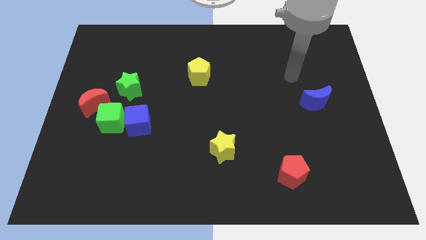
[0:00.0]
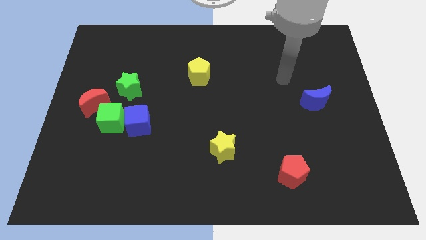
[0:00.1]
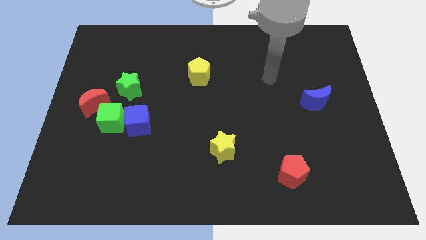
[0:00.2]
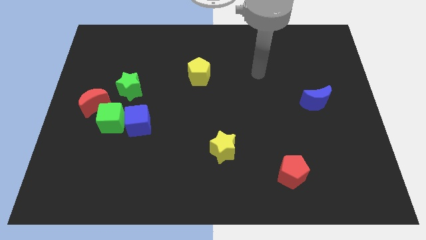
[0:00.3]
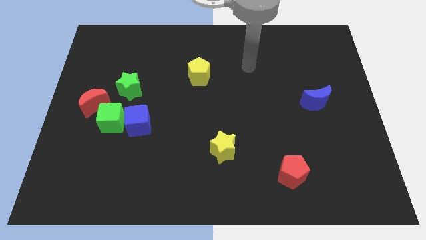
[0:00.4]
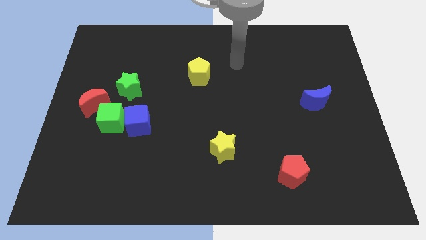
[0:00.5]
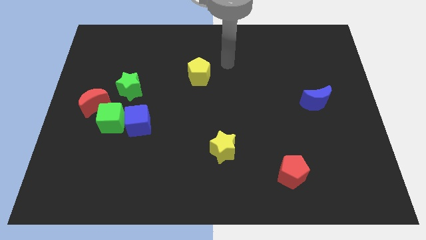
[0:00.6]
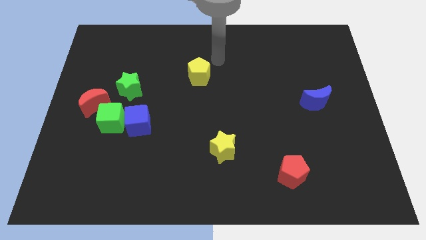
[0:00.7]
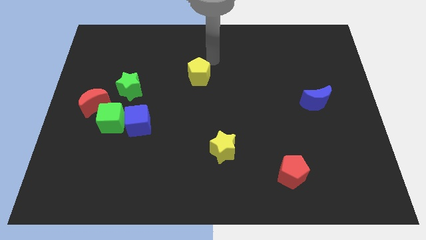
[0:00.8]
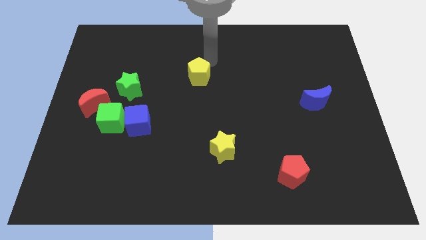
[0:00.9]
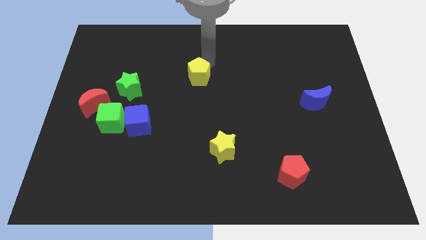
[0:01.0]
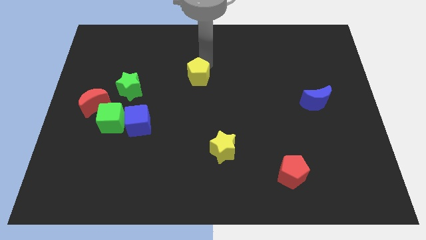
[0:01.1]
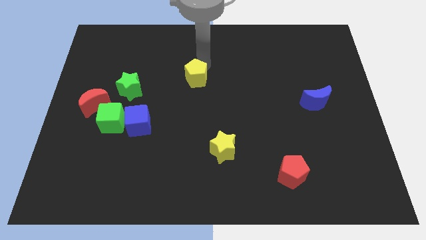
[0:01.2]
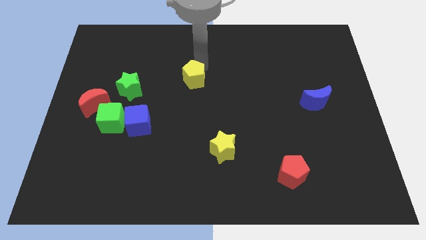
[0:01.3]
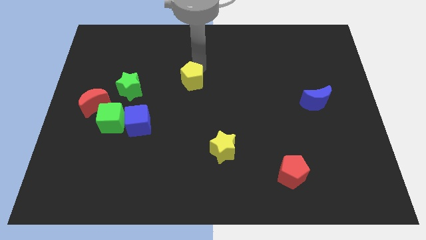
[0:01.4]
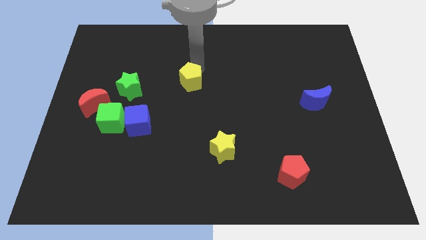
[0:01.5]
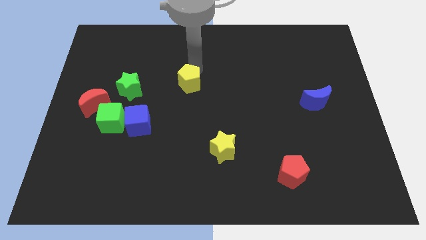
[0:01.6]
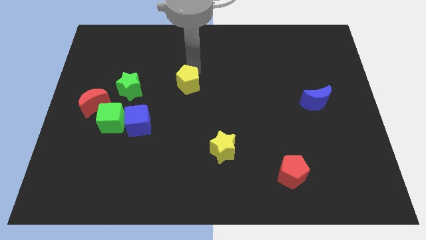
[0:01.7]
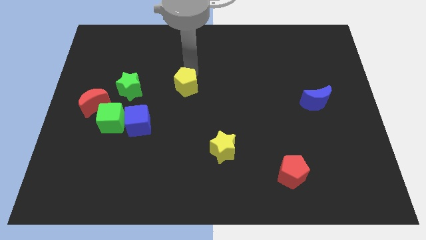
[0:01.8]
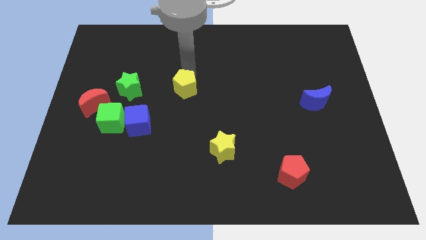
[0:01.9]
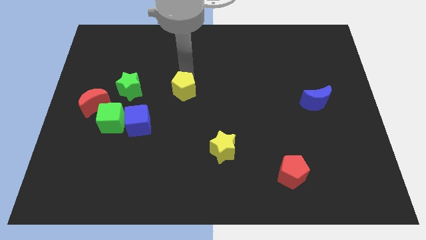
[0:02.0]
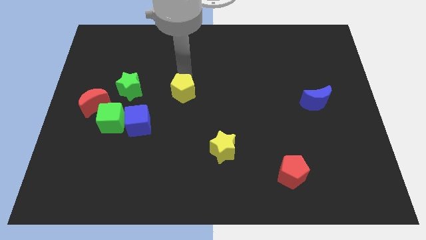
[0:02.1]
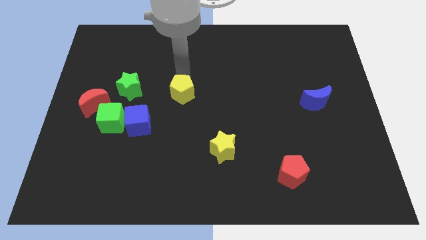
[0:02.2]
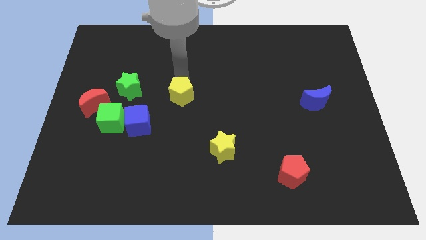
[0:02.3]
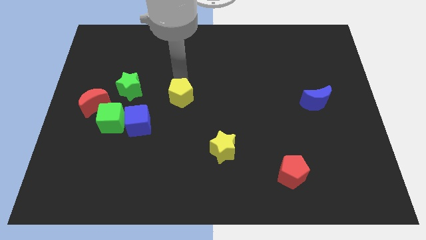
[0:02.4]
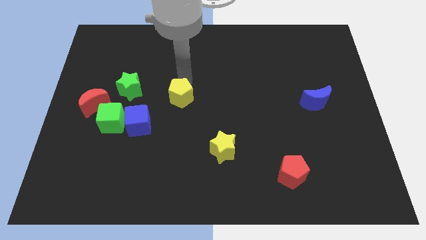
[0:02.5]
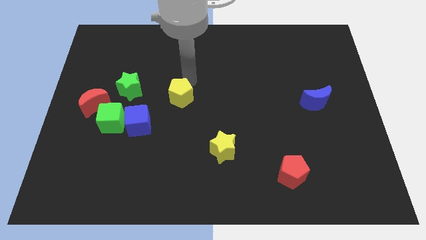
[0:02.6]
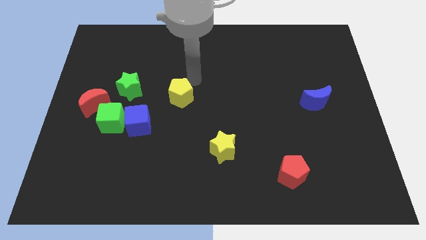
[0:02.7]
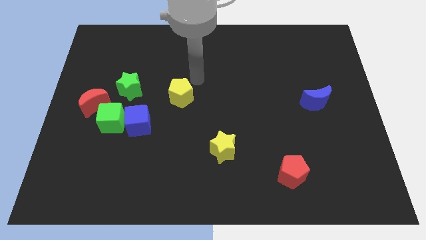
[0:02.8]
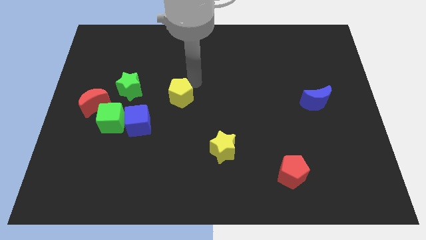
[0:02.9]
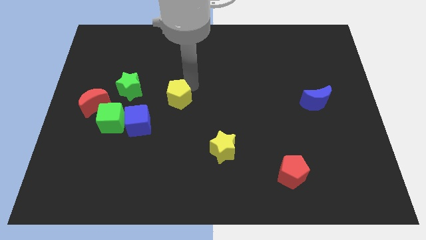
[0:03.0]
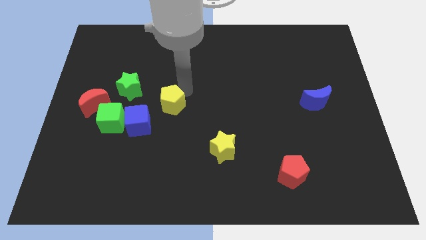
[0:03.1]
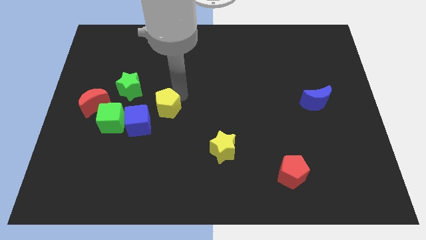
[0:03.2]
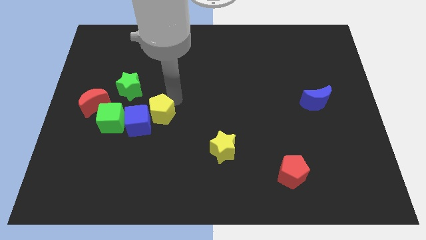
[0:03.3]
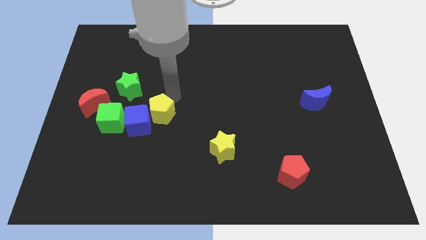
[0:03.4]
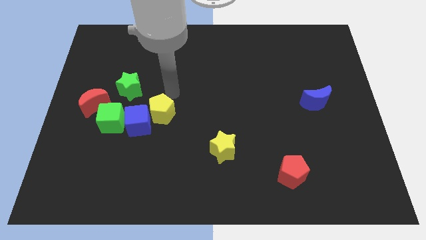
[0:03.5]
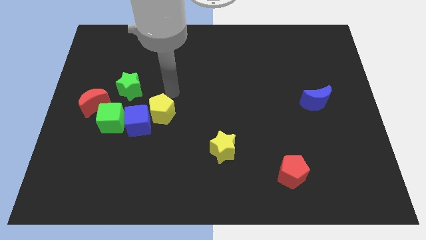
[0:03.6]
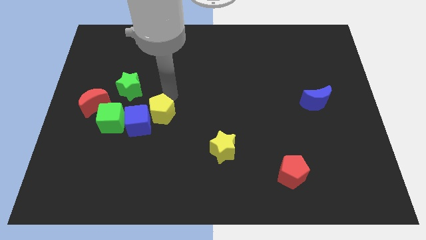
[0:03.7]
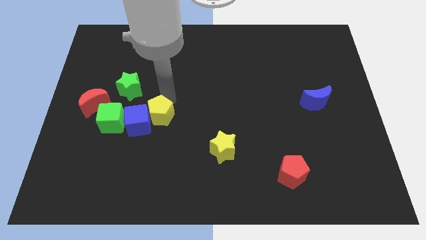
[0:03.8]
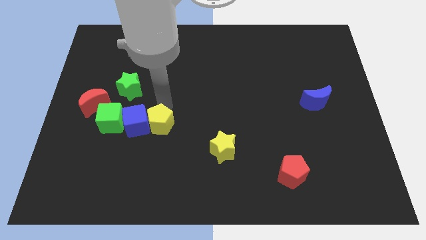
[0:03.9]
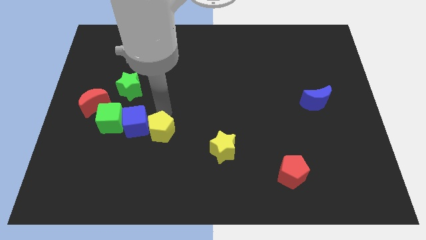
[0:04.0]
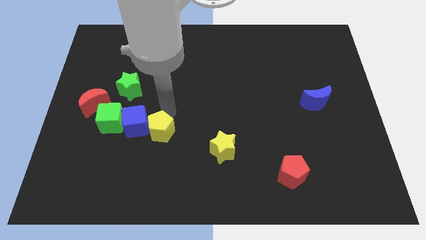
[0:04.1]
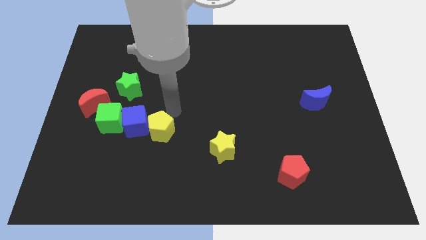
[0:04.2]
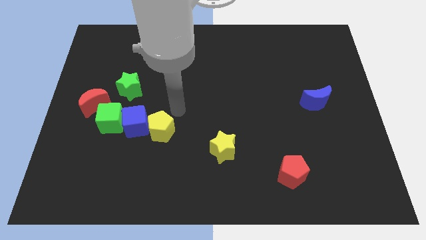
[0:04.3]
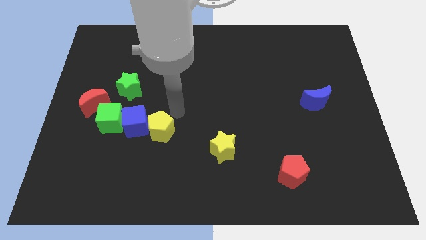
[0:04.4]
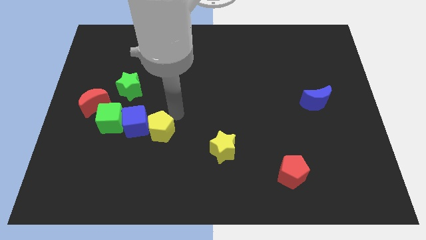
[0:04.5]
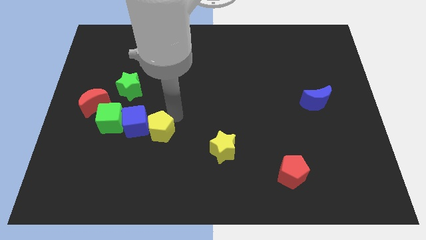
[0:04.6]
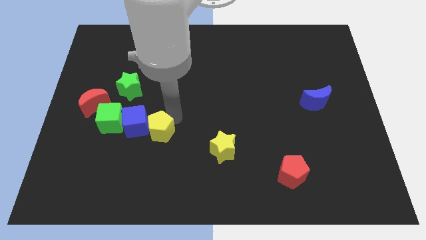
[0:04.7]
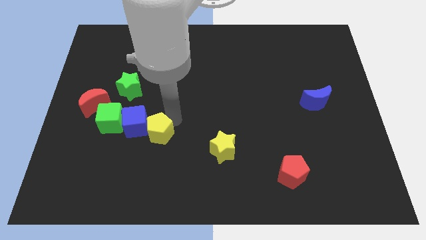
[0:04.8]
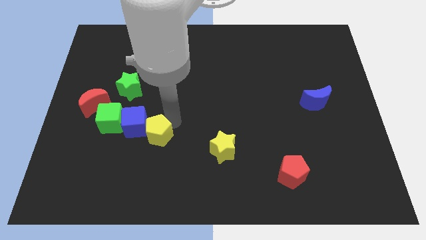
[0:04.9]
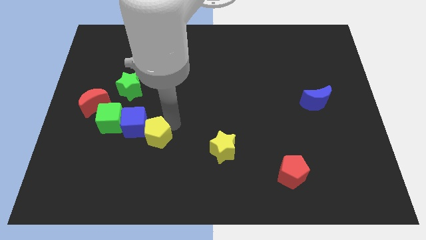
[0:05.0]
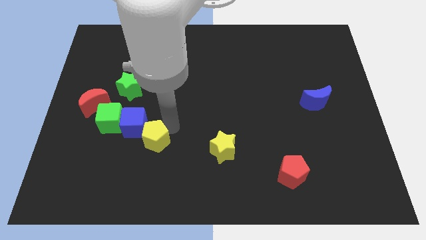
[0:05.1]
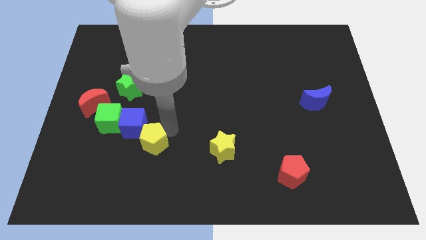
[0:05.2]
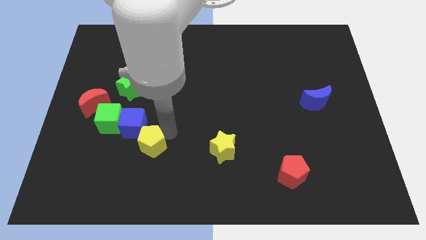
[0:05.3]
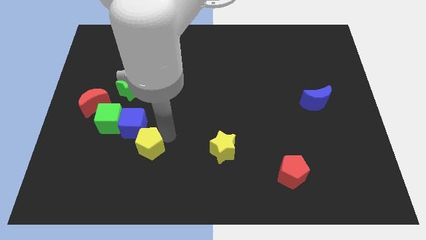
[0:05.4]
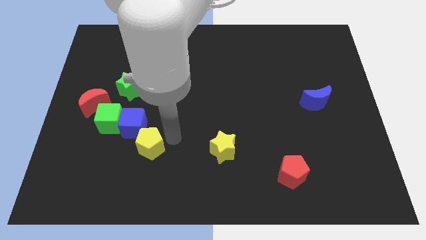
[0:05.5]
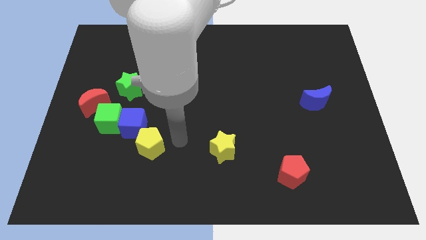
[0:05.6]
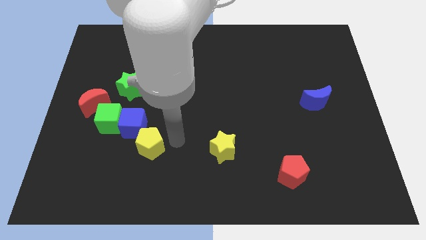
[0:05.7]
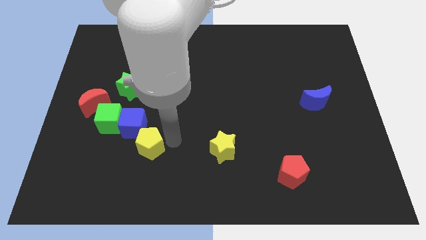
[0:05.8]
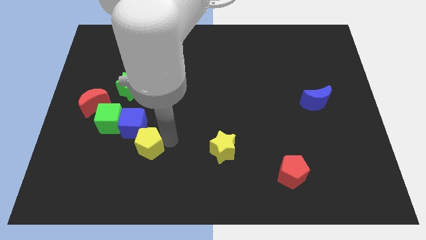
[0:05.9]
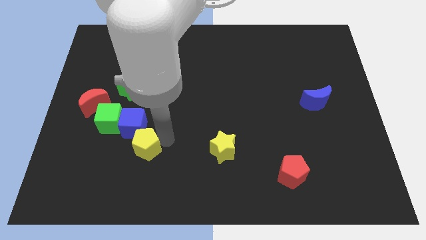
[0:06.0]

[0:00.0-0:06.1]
slide the yellow pentagon down and then left

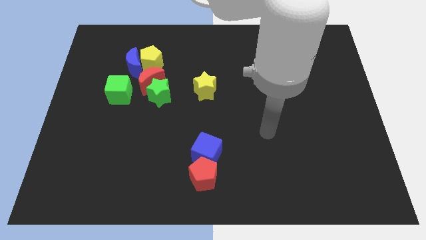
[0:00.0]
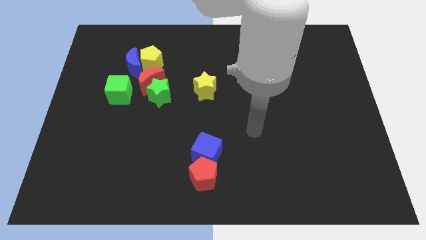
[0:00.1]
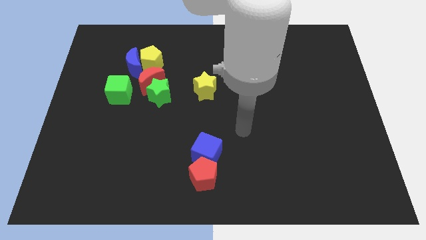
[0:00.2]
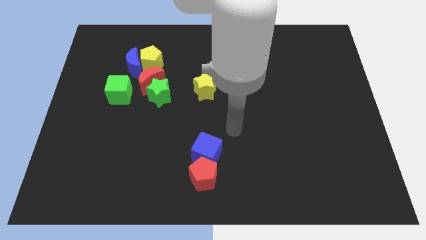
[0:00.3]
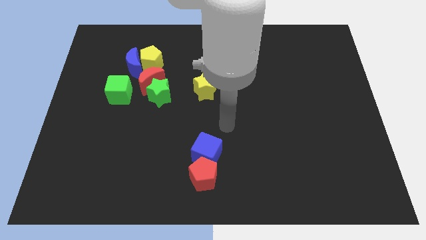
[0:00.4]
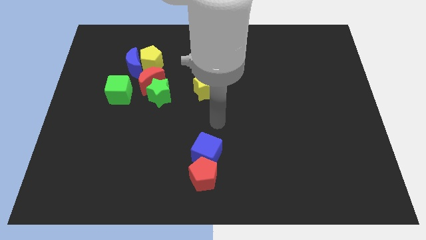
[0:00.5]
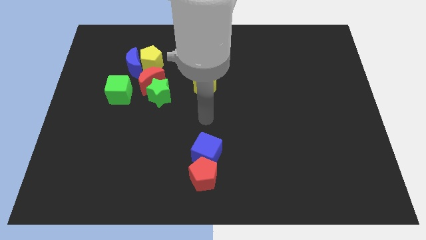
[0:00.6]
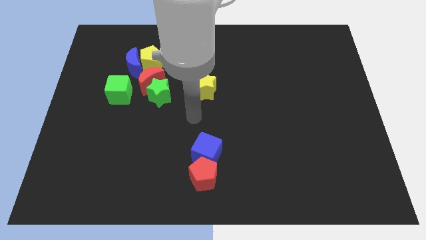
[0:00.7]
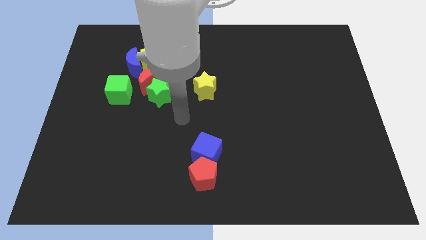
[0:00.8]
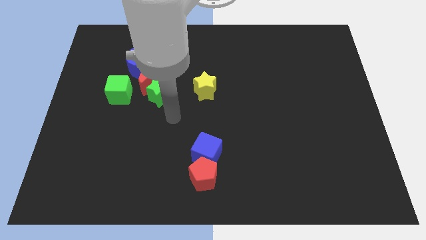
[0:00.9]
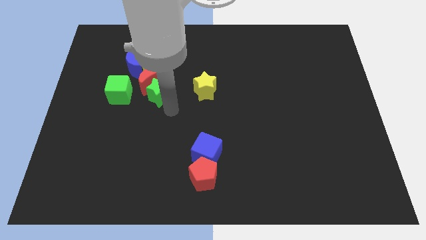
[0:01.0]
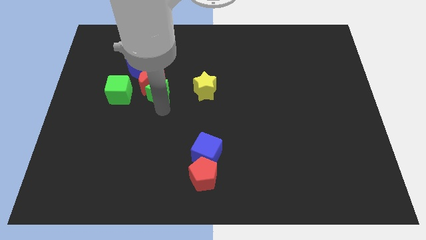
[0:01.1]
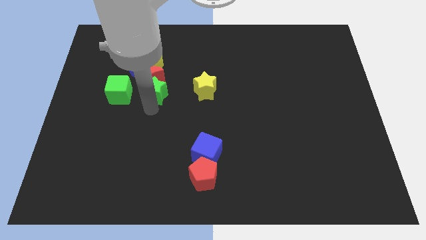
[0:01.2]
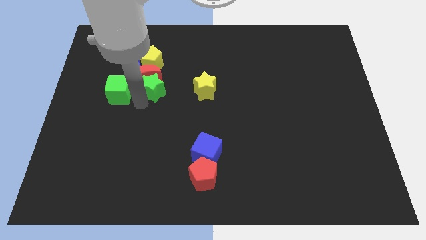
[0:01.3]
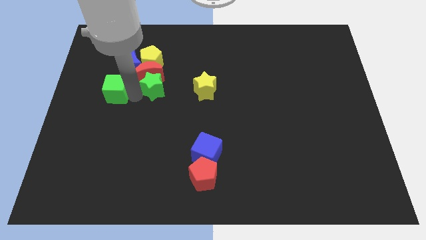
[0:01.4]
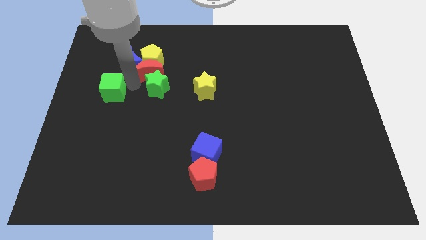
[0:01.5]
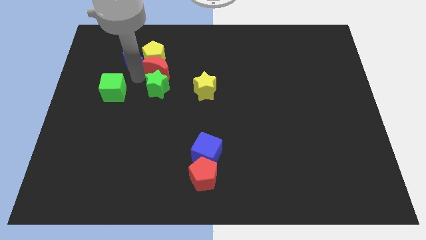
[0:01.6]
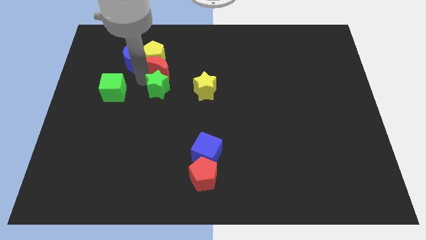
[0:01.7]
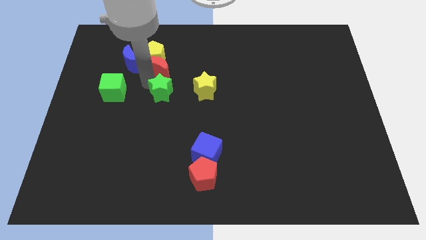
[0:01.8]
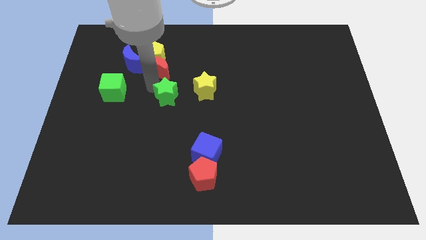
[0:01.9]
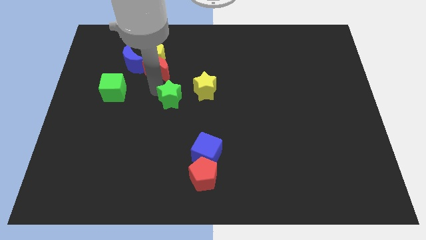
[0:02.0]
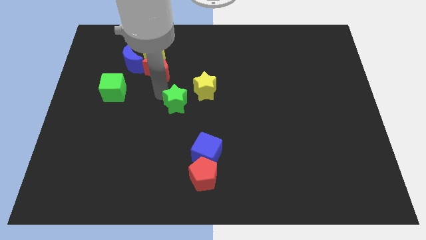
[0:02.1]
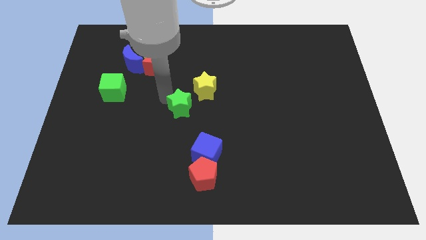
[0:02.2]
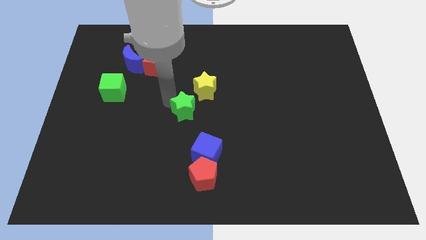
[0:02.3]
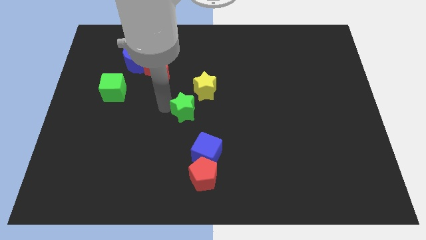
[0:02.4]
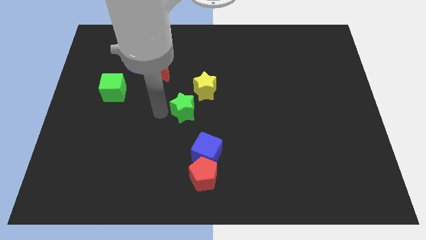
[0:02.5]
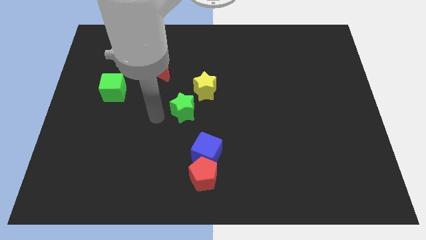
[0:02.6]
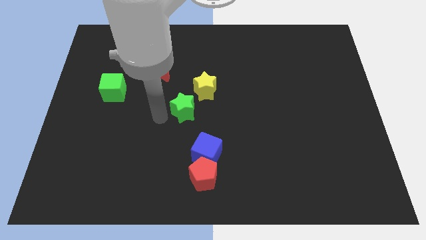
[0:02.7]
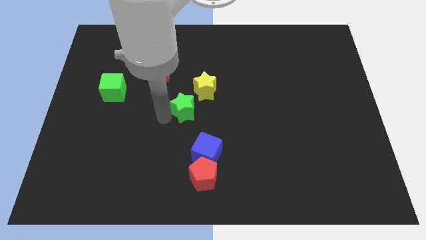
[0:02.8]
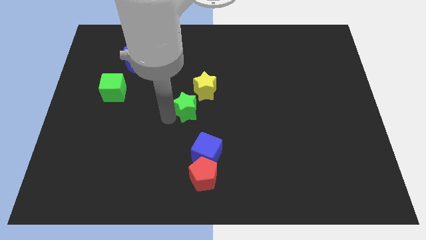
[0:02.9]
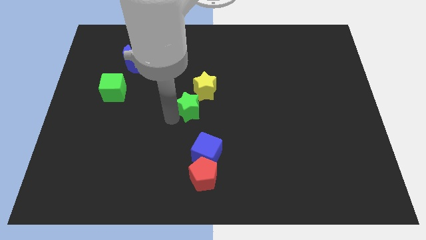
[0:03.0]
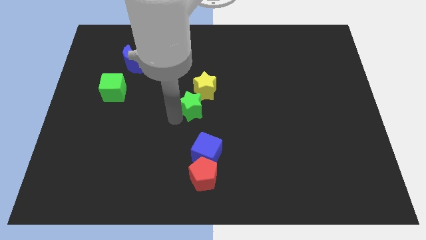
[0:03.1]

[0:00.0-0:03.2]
slightly push the green star to the right
